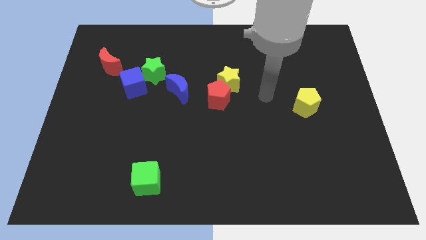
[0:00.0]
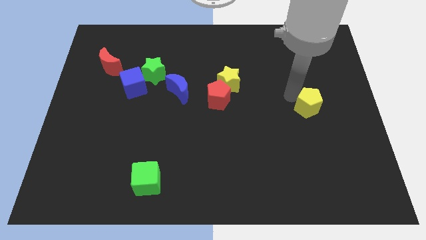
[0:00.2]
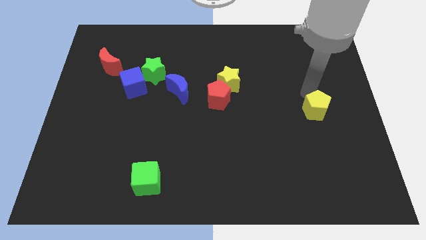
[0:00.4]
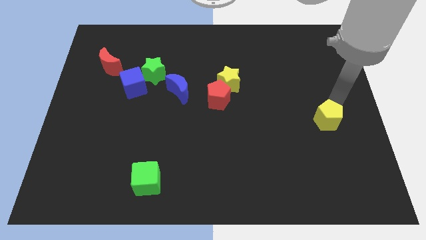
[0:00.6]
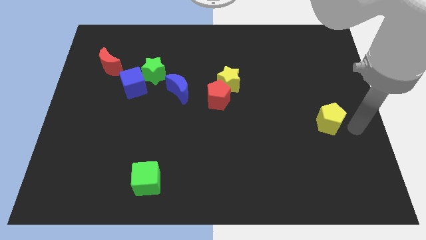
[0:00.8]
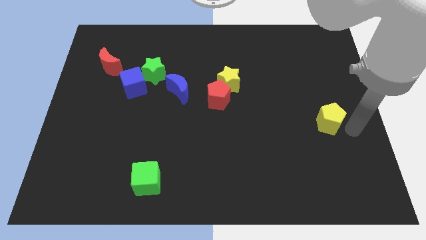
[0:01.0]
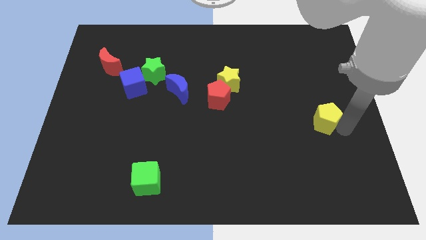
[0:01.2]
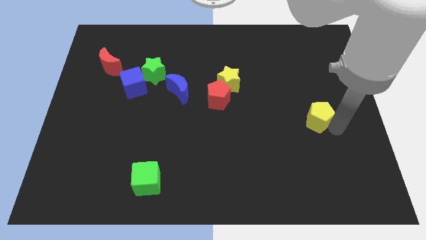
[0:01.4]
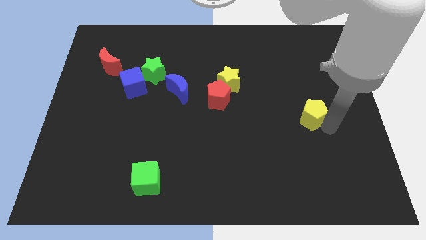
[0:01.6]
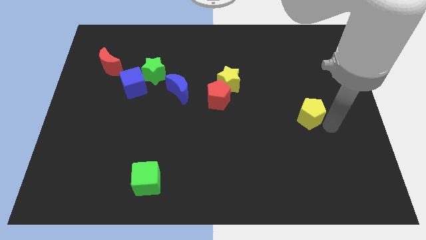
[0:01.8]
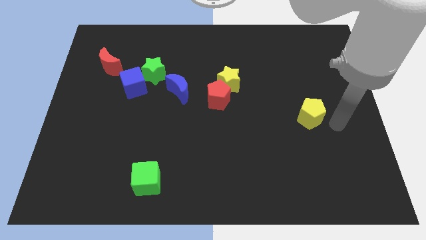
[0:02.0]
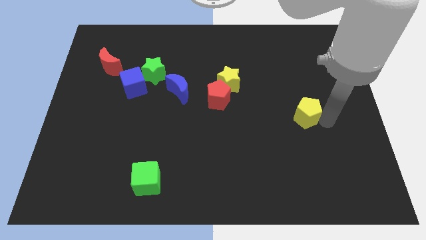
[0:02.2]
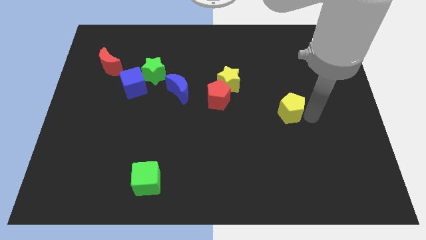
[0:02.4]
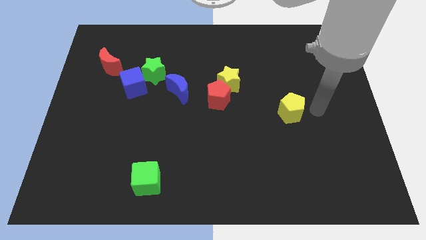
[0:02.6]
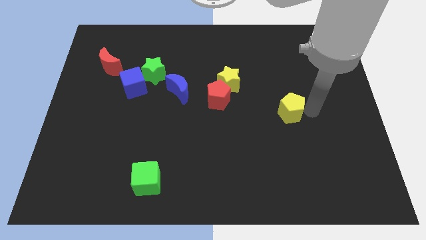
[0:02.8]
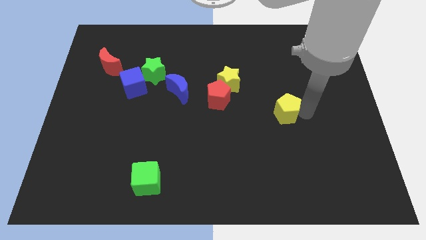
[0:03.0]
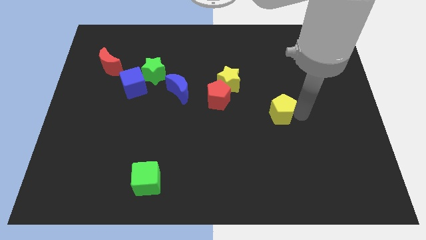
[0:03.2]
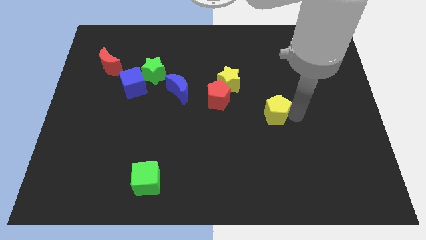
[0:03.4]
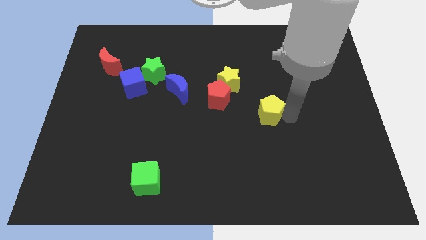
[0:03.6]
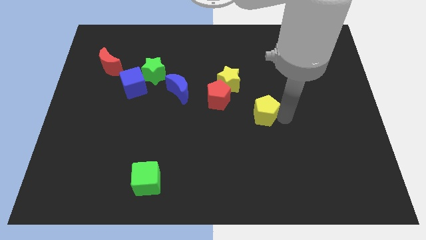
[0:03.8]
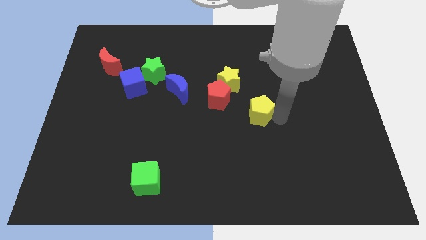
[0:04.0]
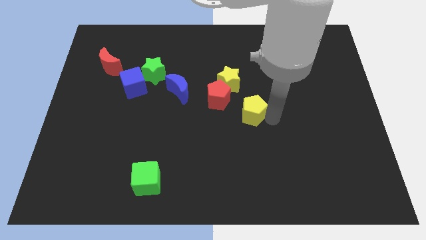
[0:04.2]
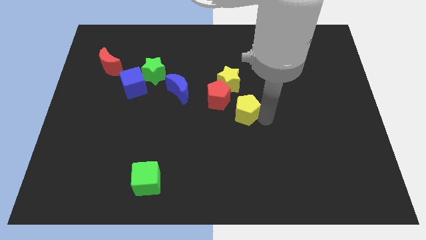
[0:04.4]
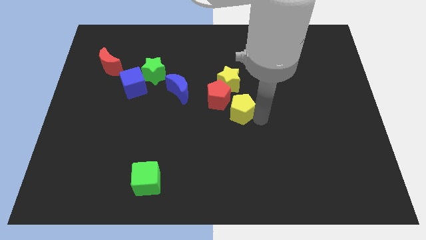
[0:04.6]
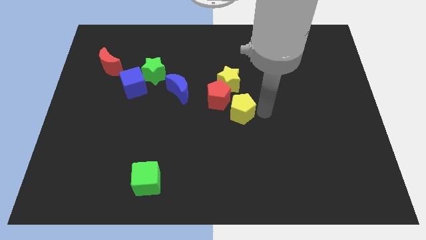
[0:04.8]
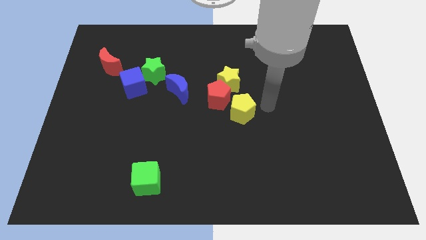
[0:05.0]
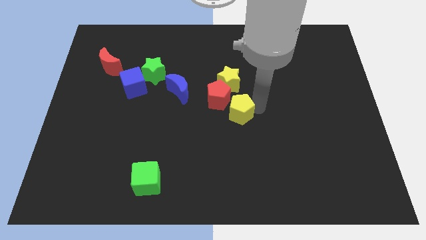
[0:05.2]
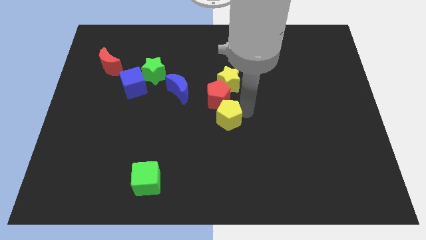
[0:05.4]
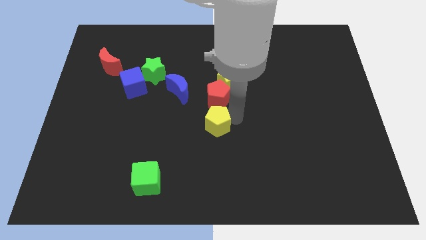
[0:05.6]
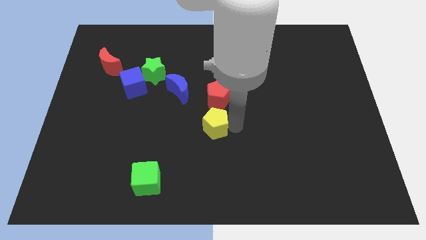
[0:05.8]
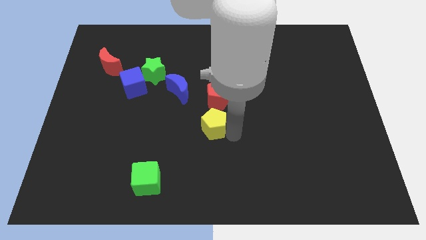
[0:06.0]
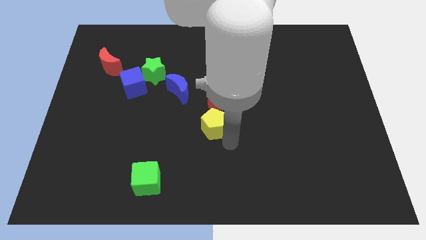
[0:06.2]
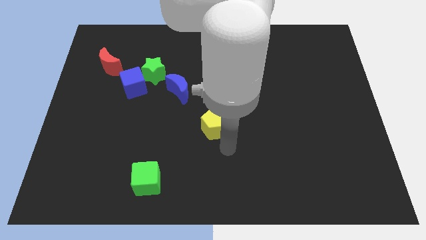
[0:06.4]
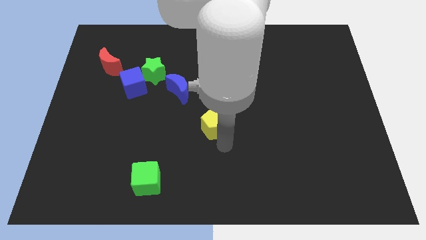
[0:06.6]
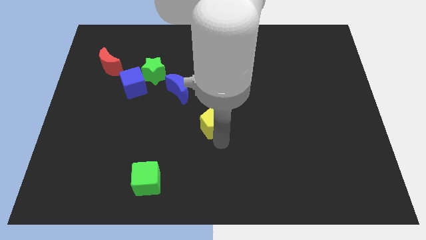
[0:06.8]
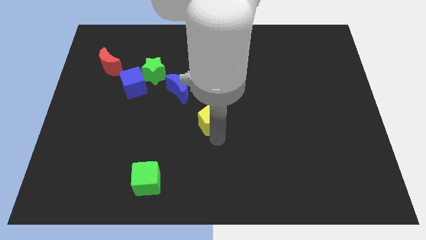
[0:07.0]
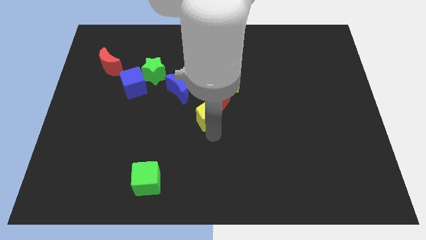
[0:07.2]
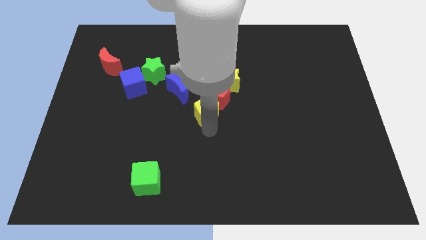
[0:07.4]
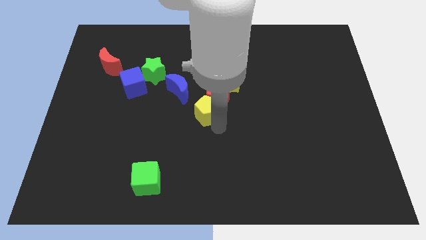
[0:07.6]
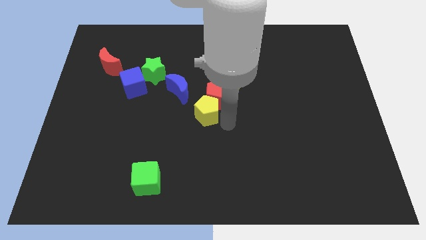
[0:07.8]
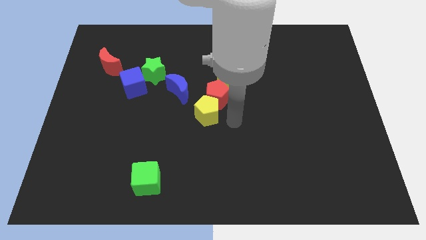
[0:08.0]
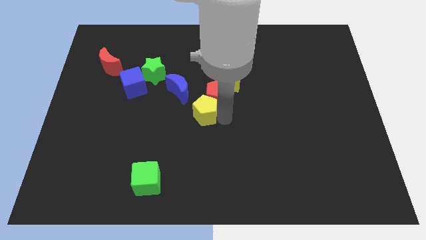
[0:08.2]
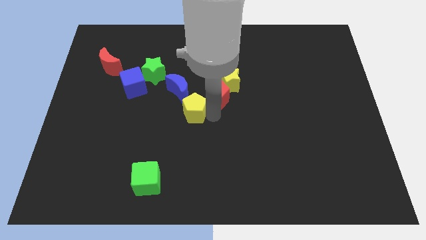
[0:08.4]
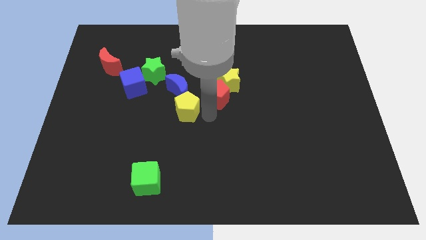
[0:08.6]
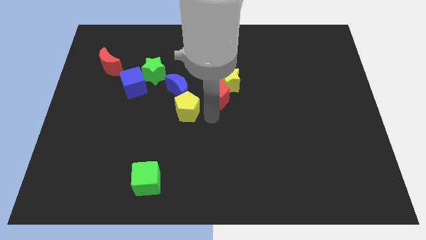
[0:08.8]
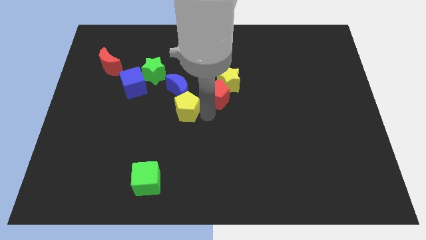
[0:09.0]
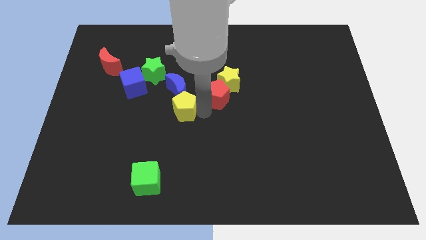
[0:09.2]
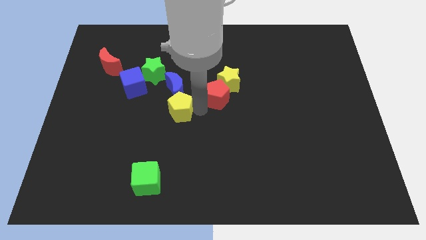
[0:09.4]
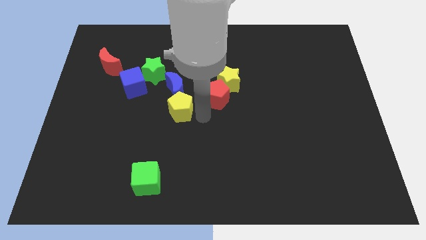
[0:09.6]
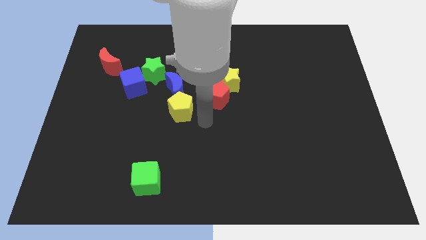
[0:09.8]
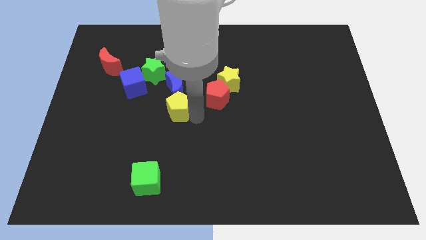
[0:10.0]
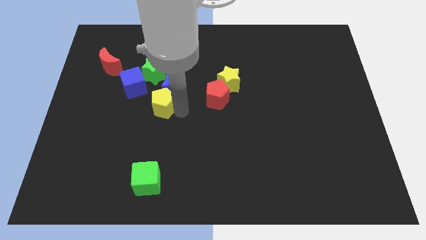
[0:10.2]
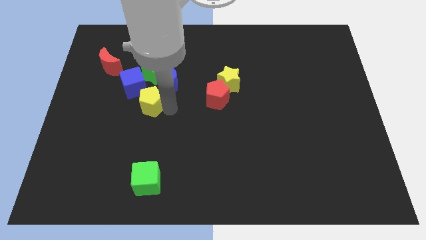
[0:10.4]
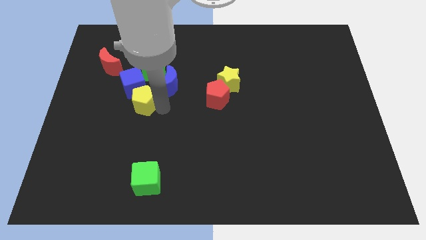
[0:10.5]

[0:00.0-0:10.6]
put the yellow pentagon next to the blue cube

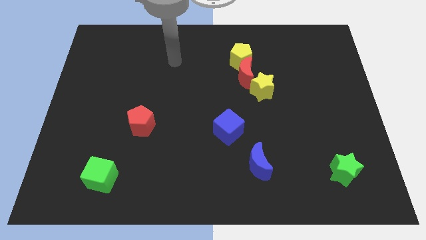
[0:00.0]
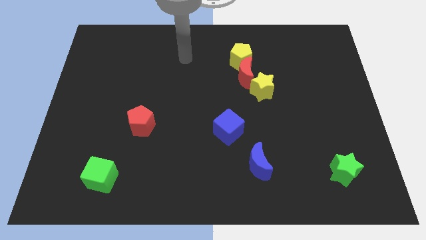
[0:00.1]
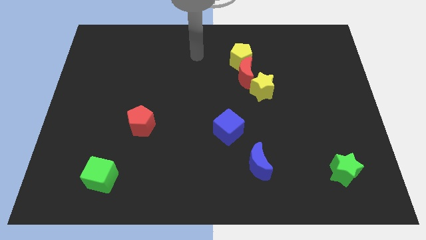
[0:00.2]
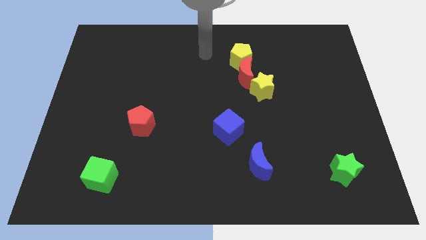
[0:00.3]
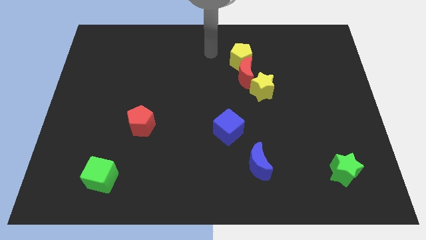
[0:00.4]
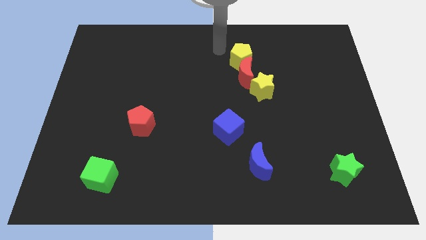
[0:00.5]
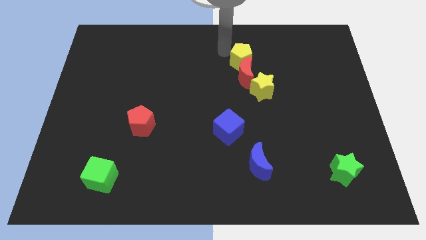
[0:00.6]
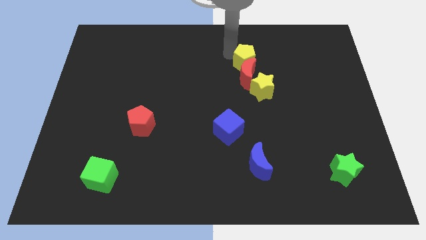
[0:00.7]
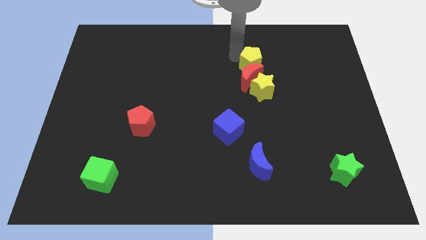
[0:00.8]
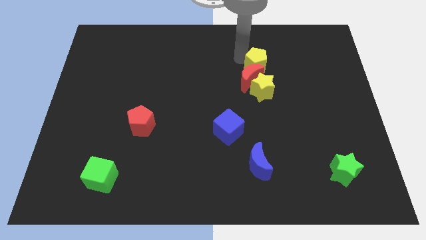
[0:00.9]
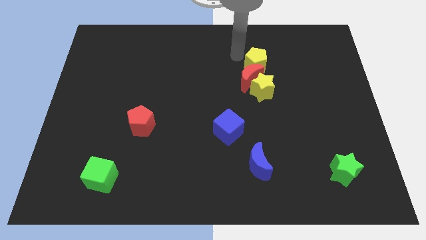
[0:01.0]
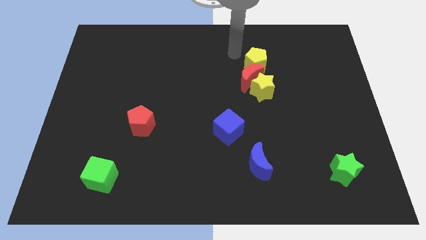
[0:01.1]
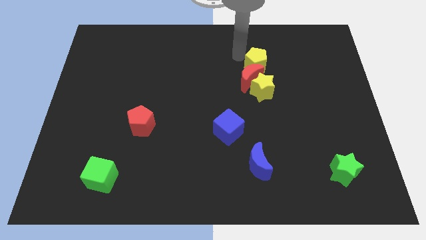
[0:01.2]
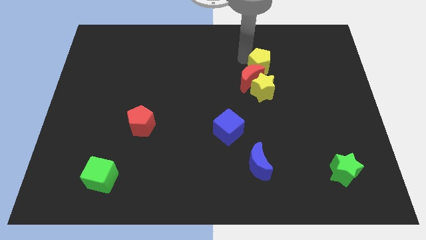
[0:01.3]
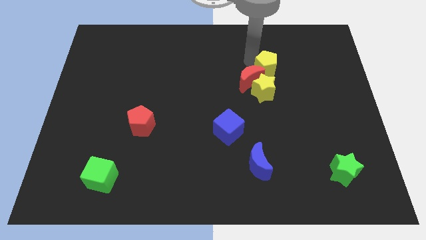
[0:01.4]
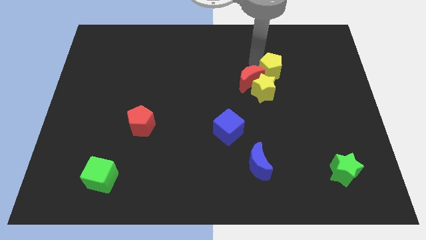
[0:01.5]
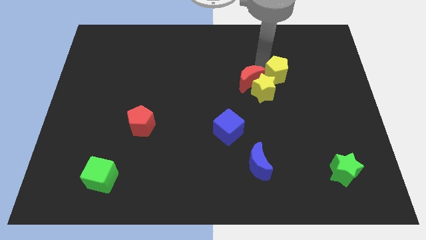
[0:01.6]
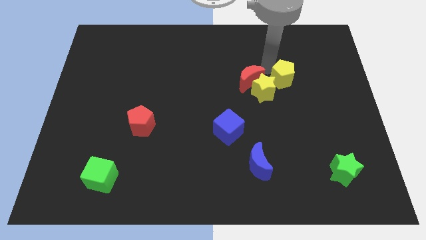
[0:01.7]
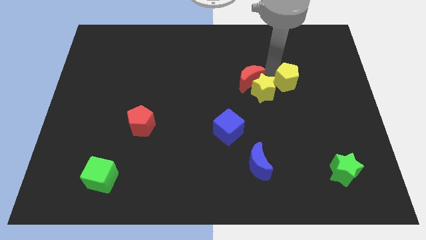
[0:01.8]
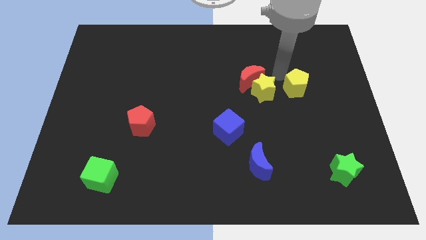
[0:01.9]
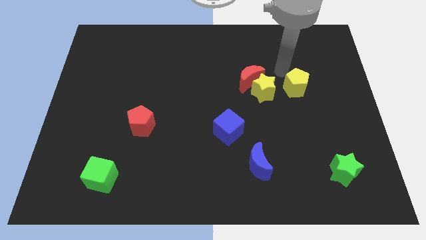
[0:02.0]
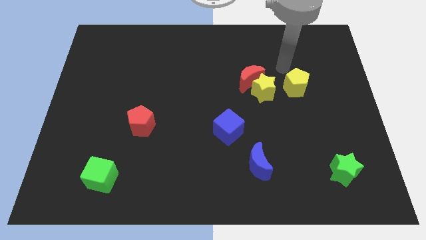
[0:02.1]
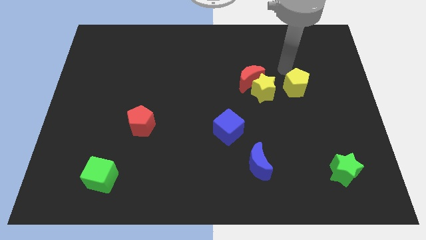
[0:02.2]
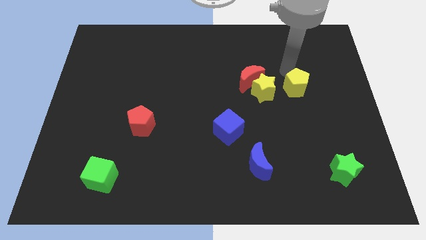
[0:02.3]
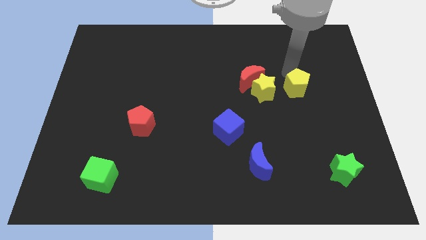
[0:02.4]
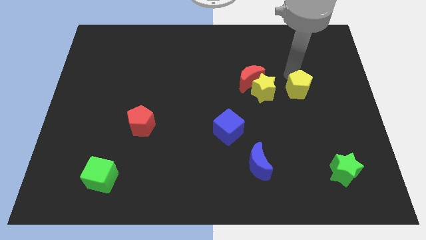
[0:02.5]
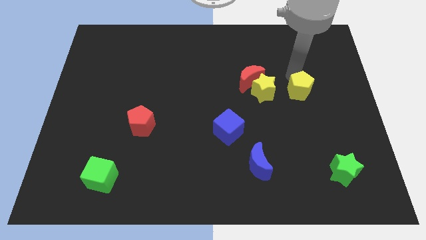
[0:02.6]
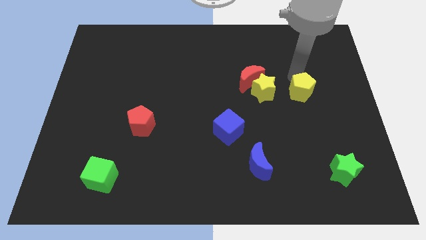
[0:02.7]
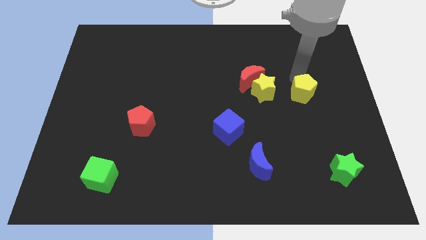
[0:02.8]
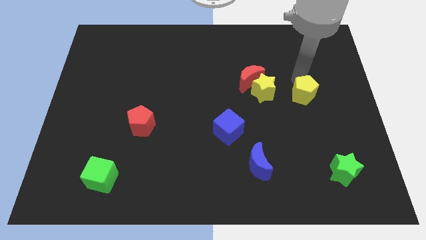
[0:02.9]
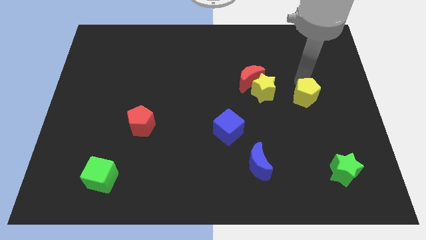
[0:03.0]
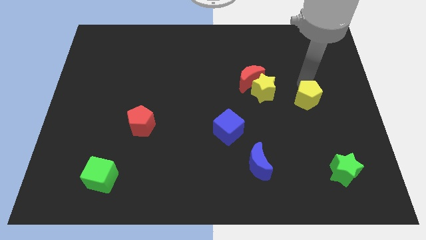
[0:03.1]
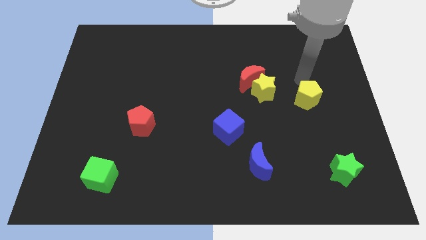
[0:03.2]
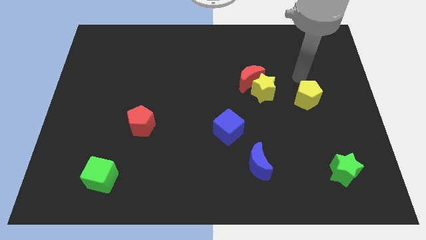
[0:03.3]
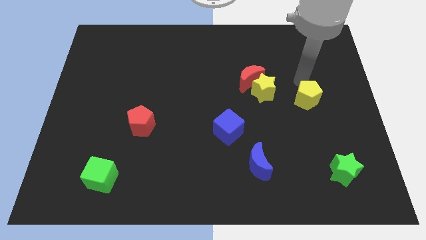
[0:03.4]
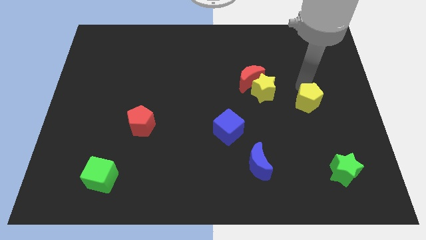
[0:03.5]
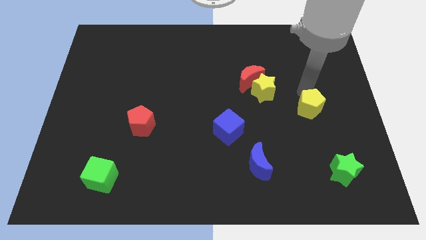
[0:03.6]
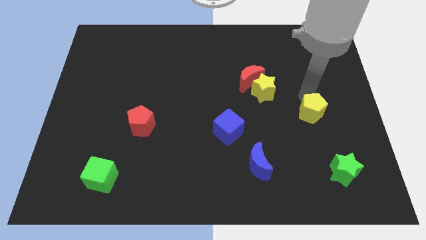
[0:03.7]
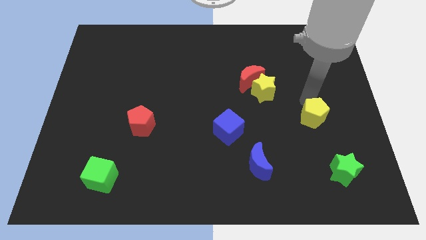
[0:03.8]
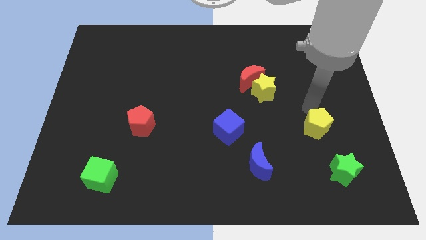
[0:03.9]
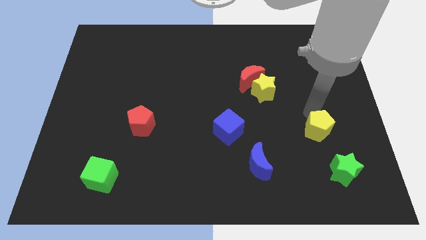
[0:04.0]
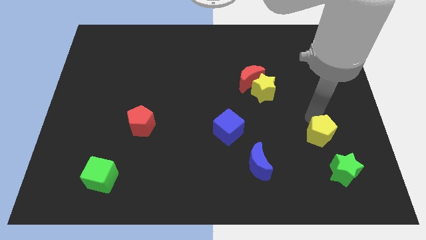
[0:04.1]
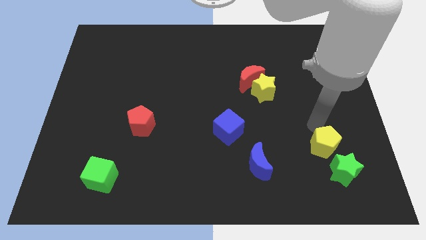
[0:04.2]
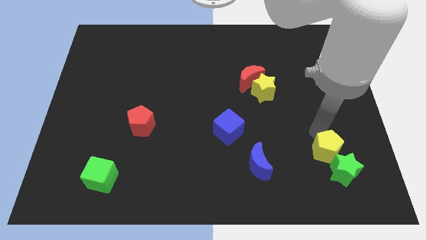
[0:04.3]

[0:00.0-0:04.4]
slide the yellow pentagon close to the green star
